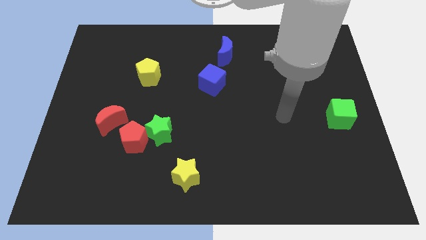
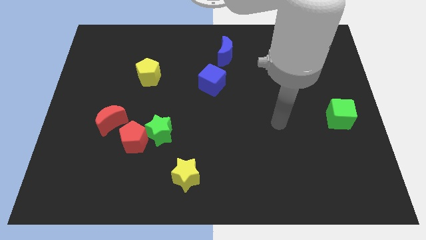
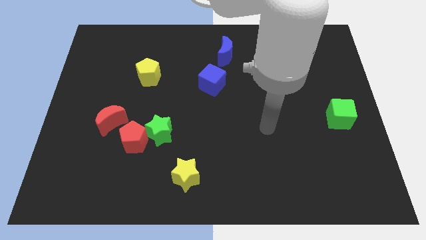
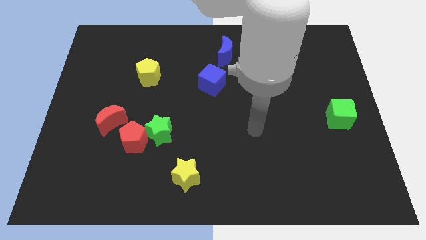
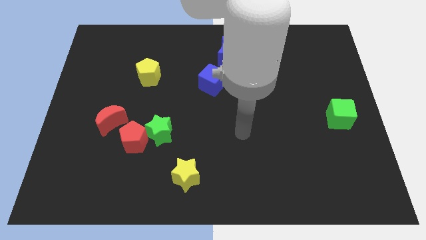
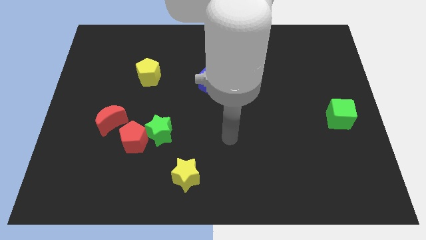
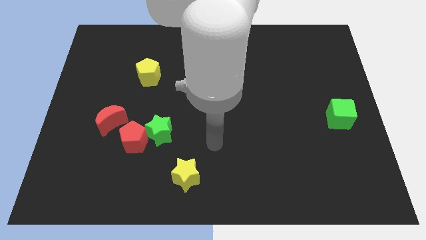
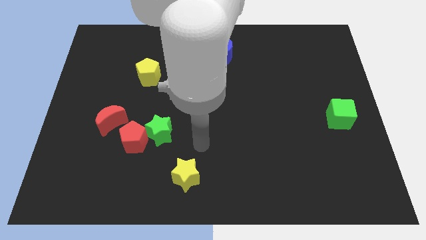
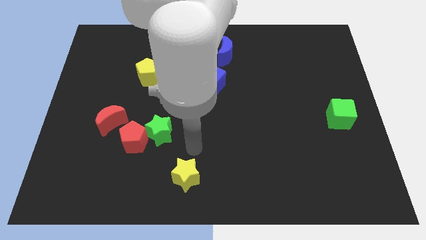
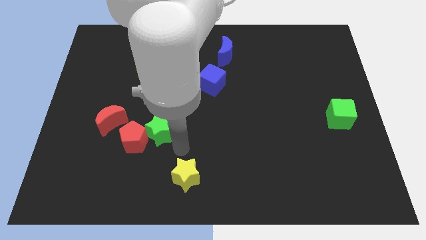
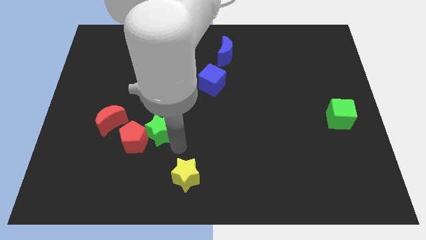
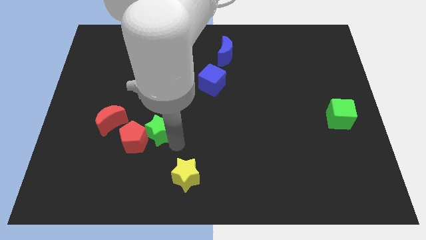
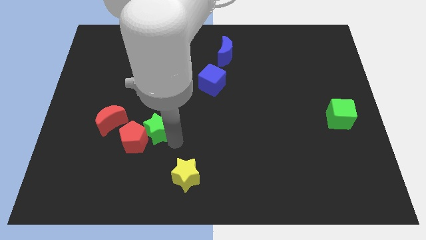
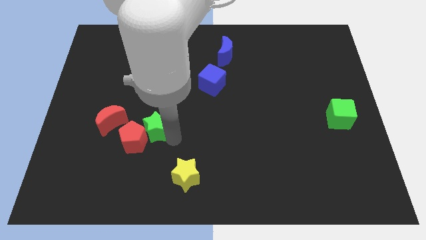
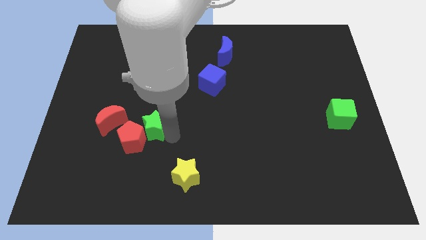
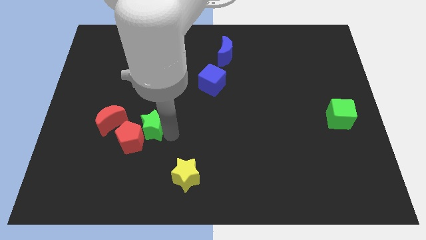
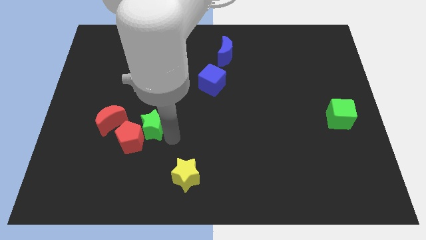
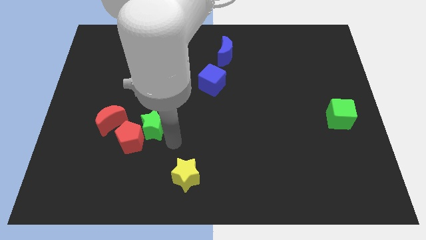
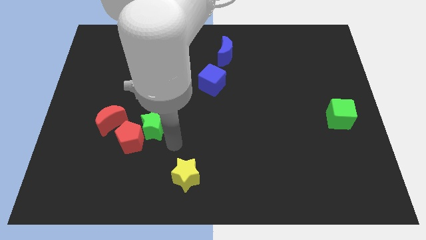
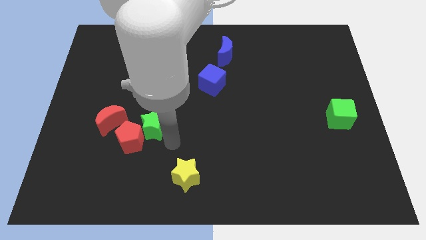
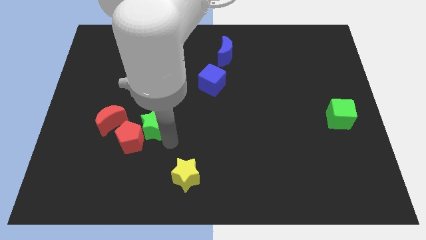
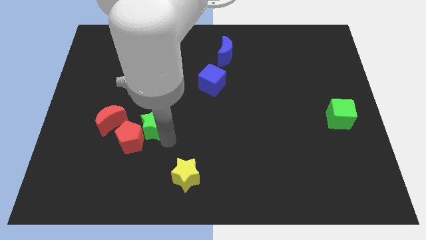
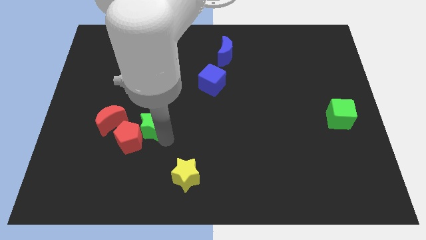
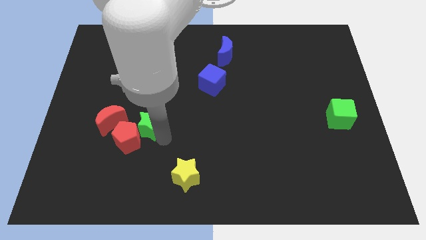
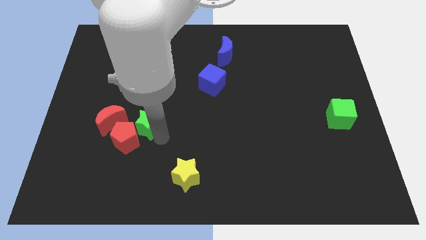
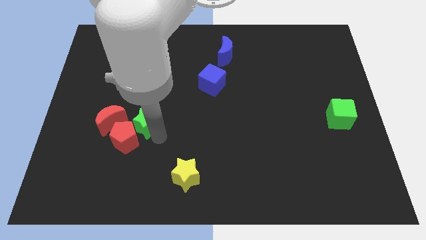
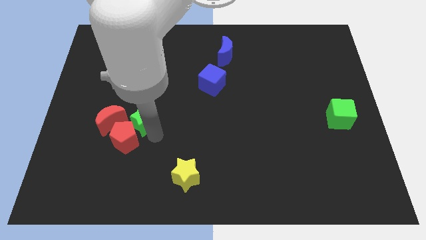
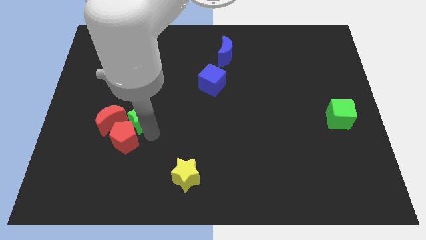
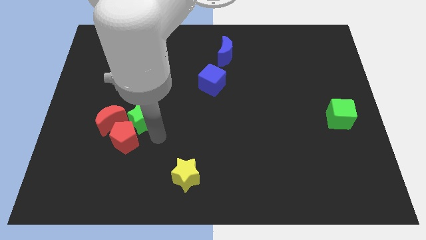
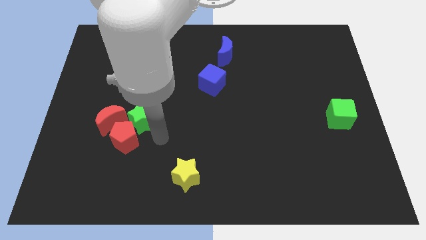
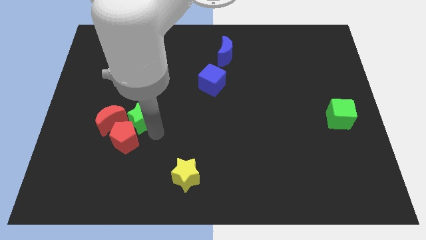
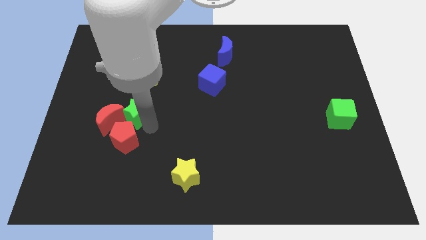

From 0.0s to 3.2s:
slide the green star diagonally upwards and to the left a little bit

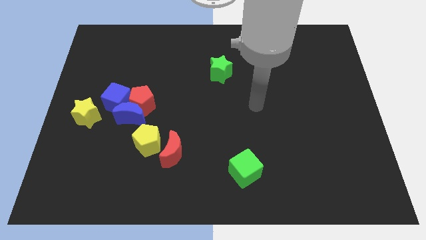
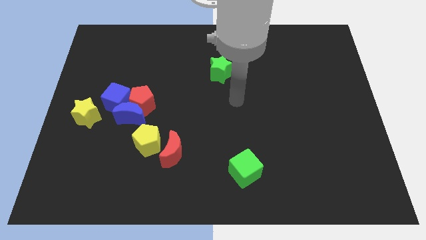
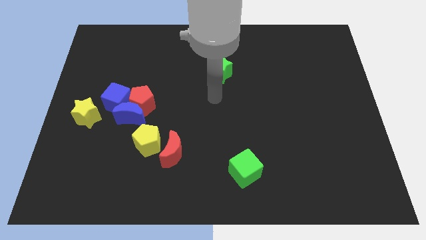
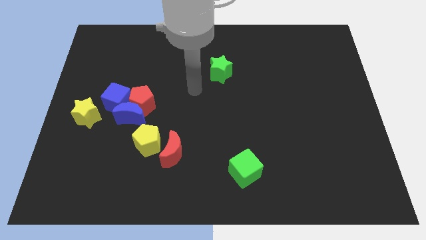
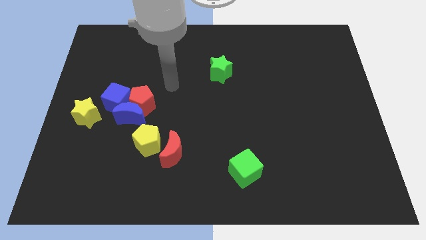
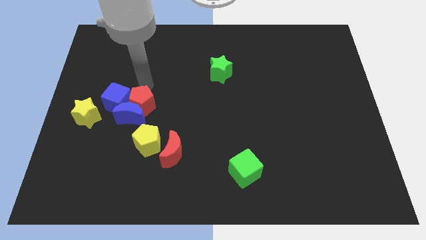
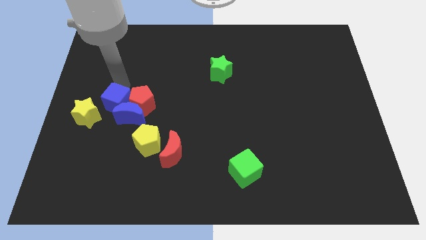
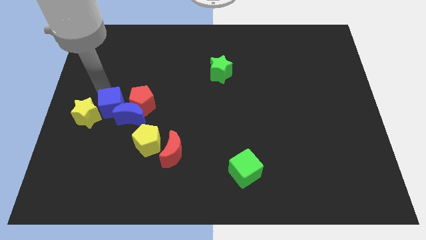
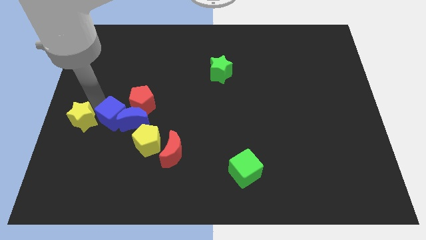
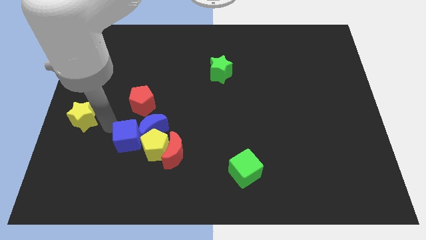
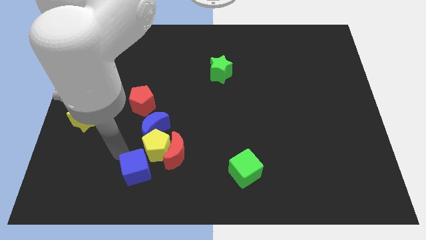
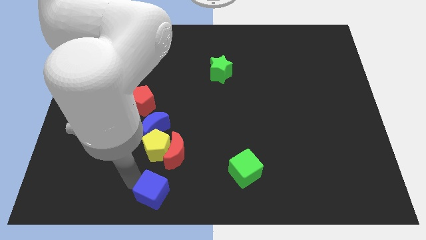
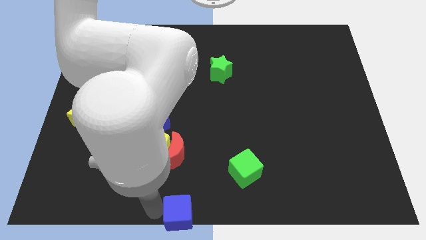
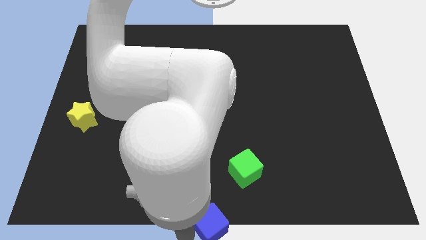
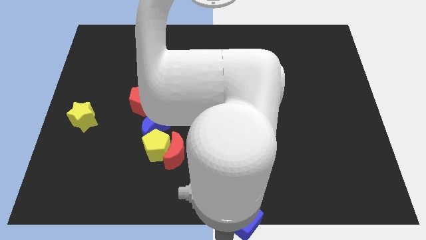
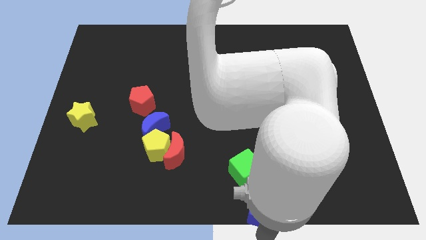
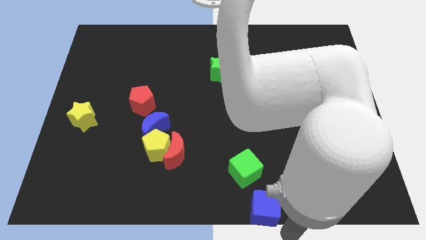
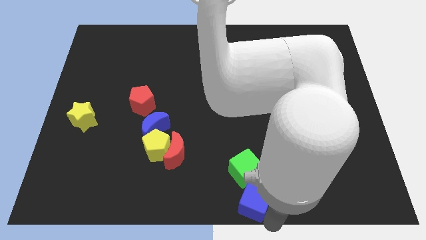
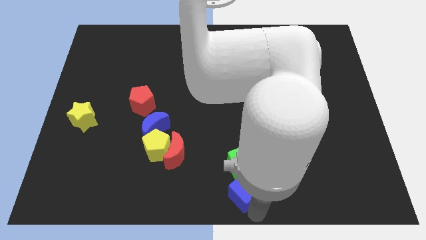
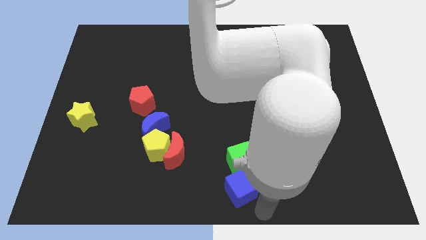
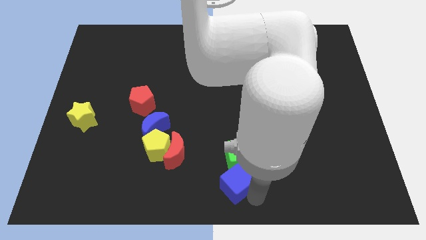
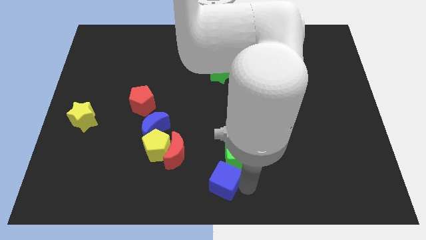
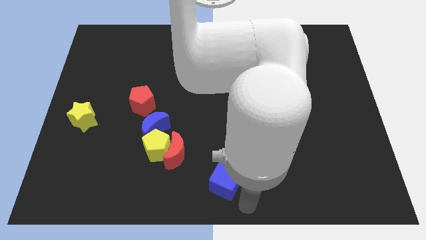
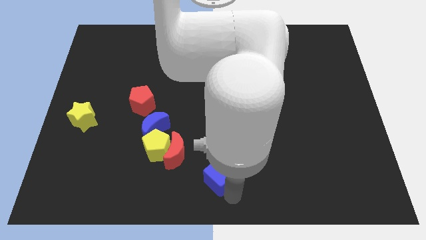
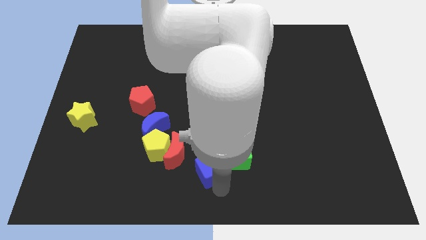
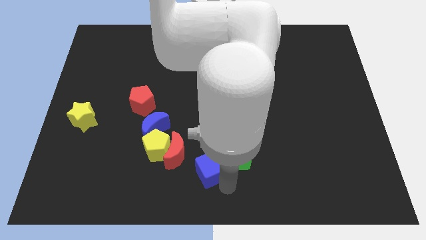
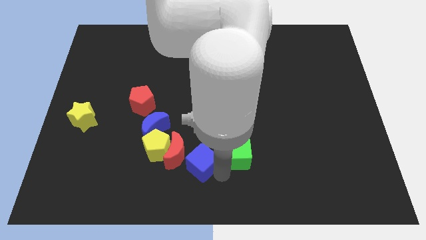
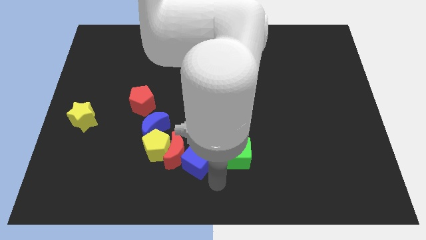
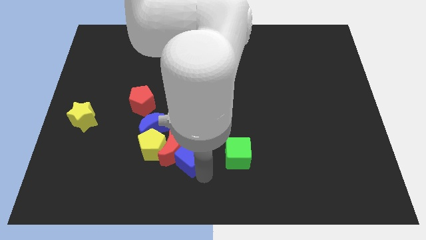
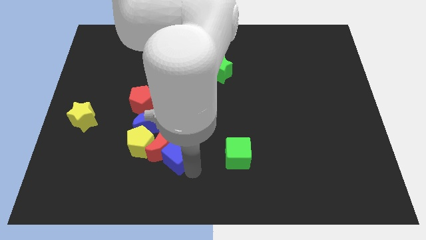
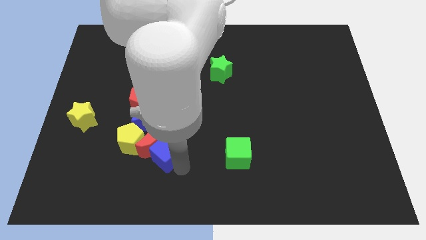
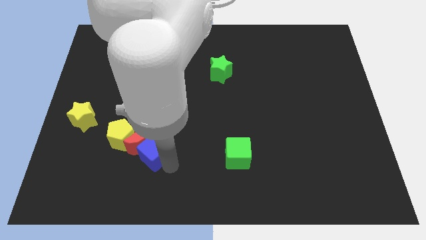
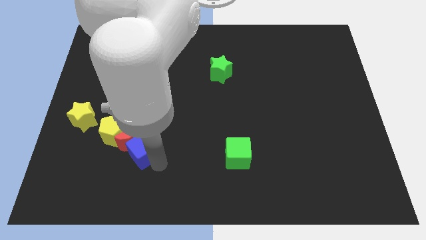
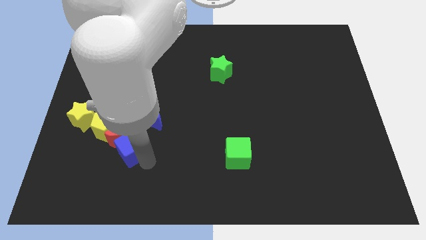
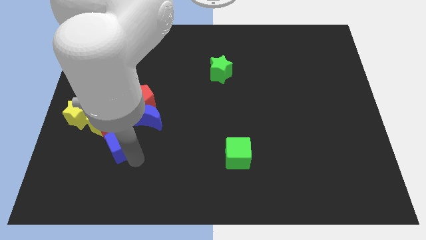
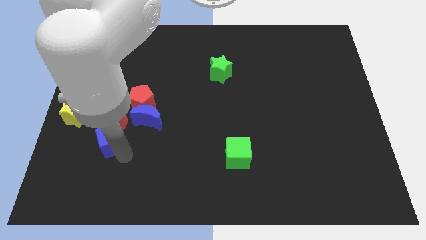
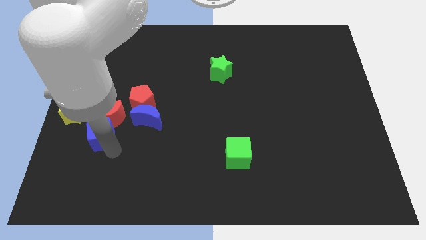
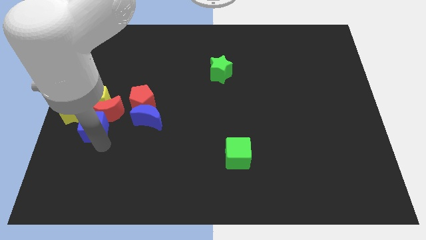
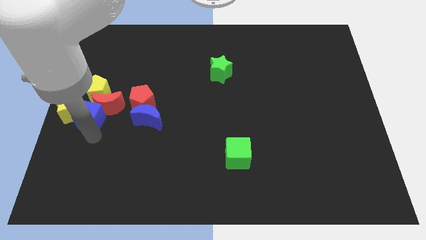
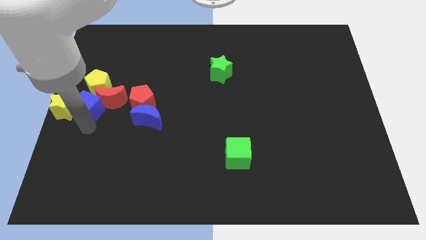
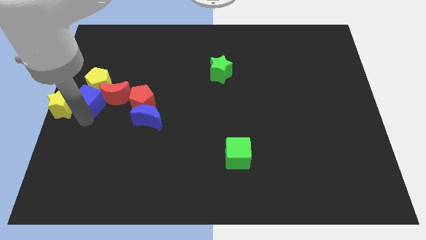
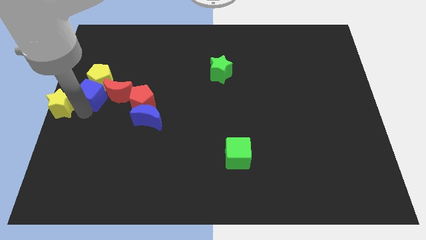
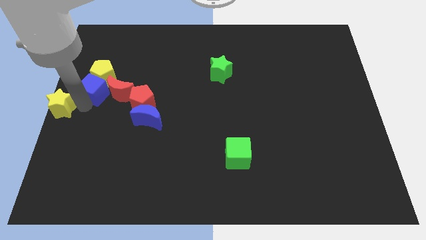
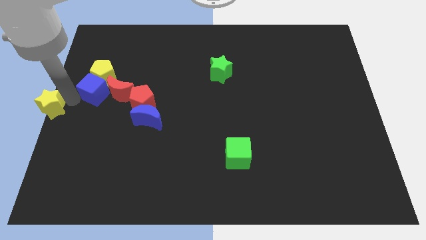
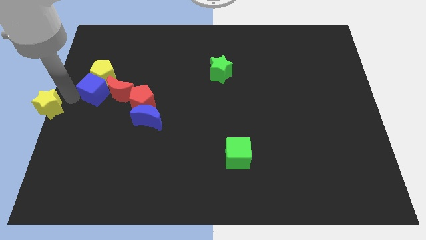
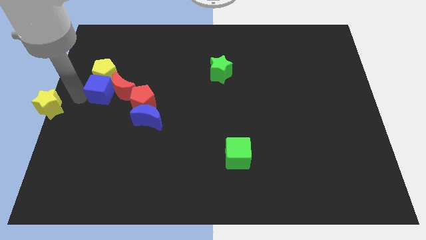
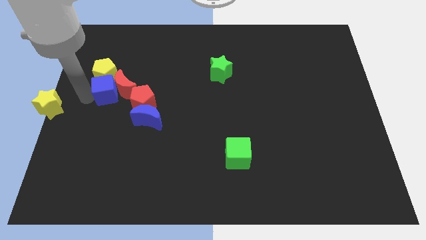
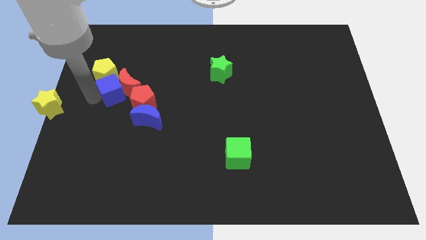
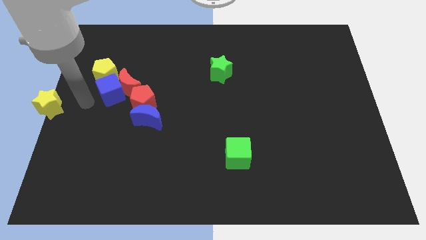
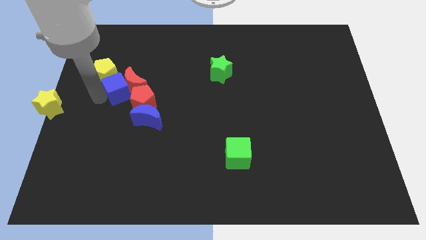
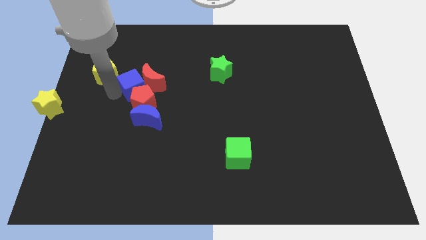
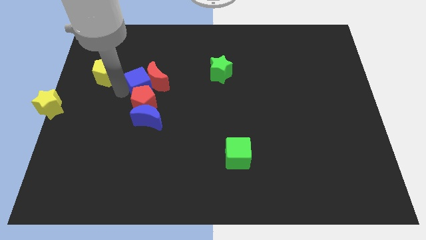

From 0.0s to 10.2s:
move the blue cube upwards and to the right slightly
